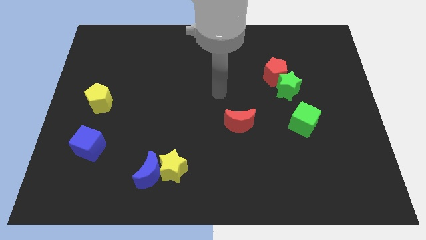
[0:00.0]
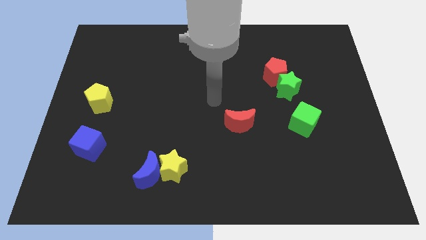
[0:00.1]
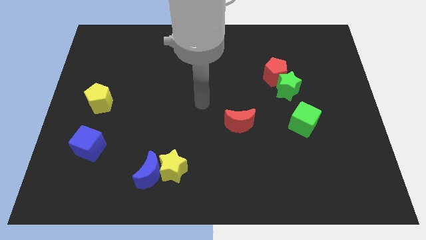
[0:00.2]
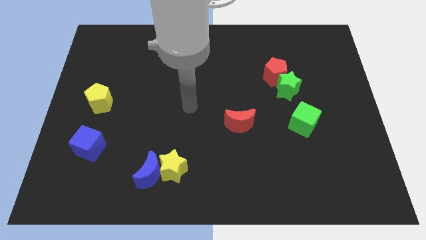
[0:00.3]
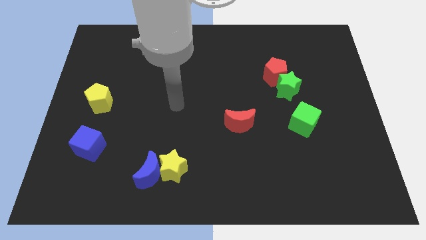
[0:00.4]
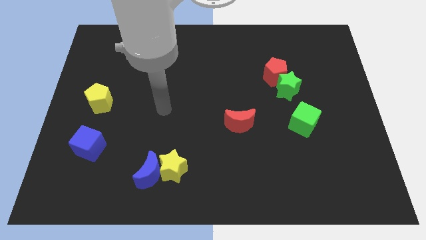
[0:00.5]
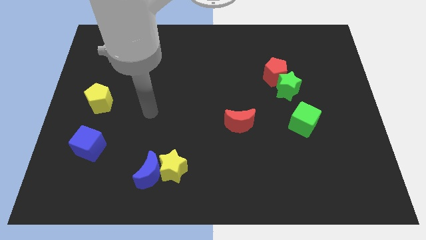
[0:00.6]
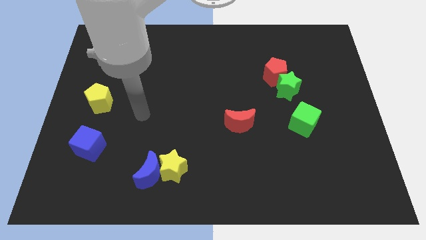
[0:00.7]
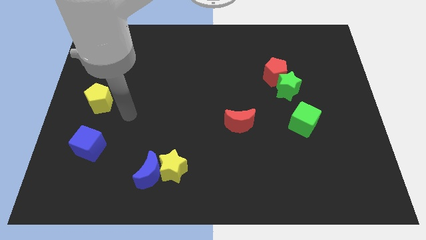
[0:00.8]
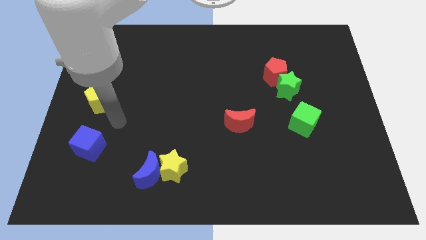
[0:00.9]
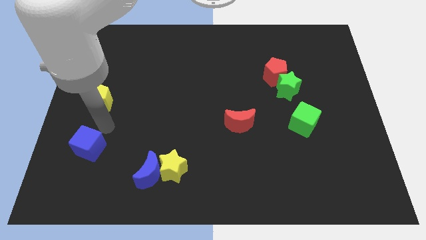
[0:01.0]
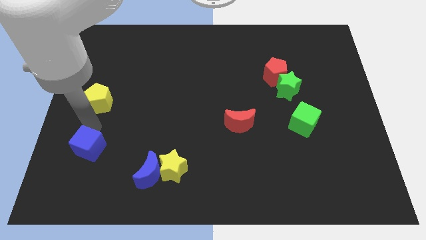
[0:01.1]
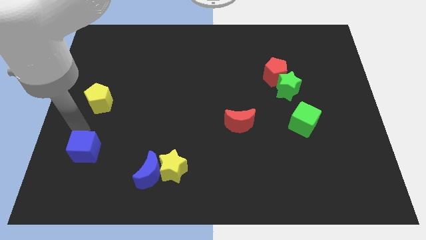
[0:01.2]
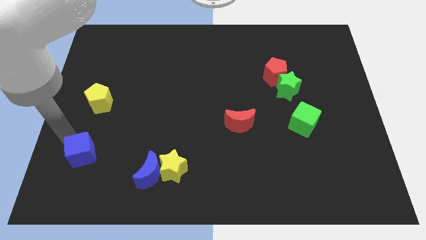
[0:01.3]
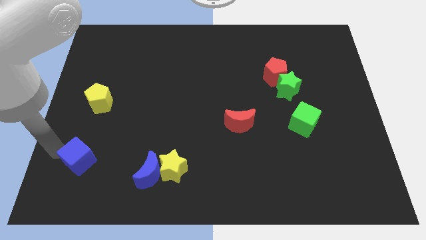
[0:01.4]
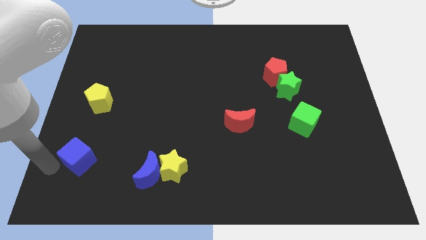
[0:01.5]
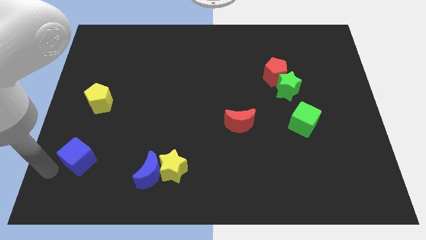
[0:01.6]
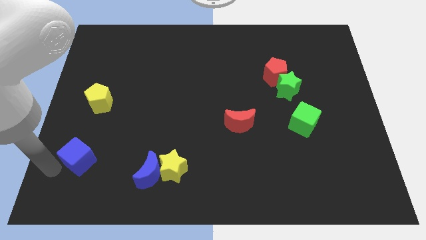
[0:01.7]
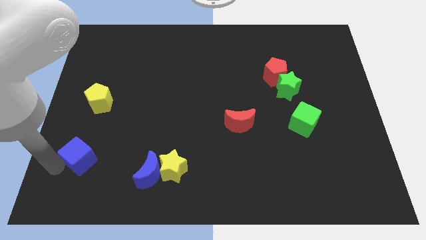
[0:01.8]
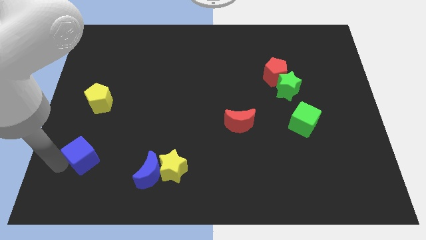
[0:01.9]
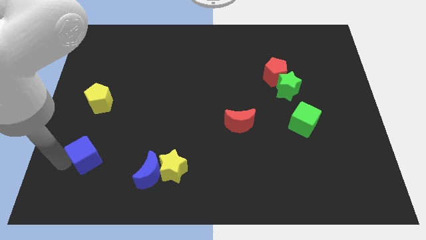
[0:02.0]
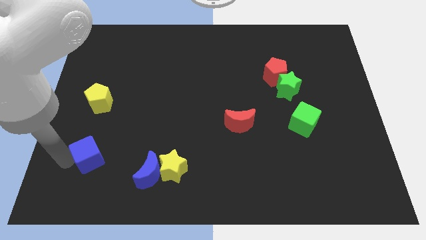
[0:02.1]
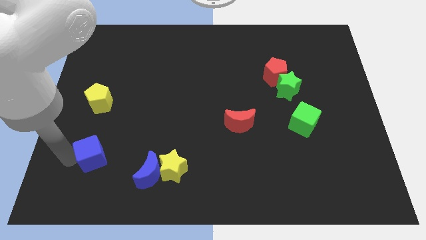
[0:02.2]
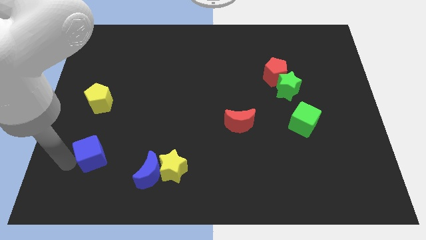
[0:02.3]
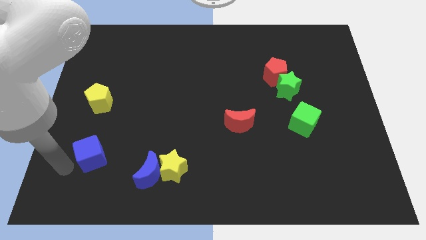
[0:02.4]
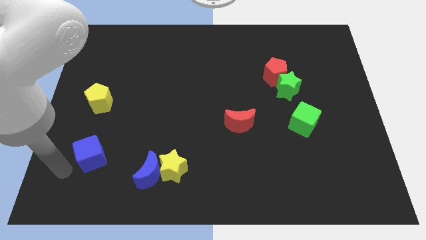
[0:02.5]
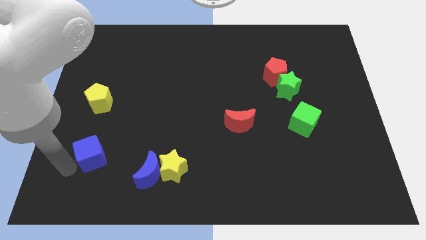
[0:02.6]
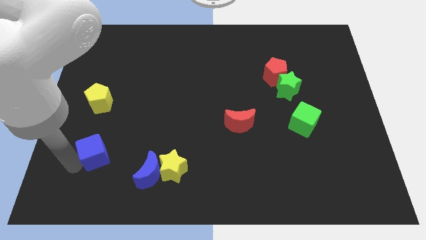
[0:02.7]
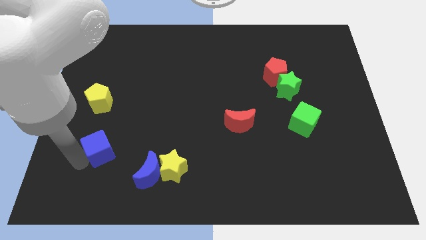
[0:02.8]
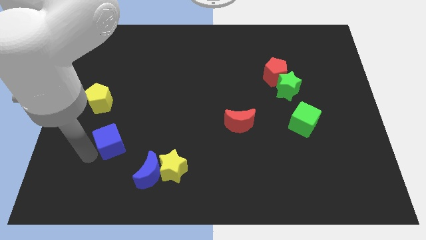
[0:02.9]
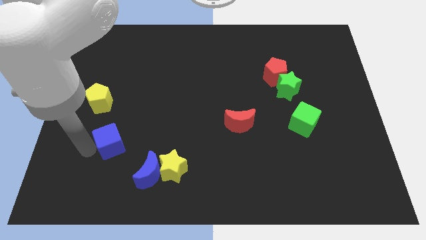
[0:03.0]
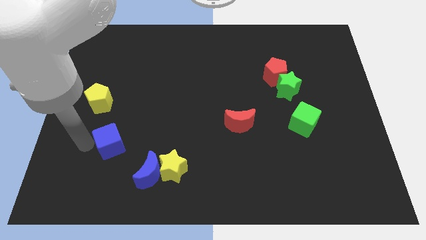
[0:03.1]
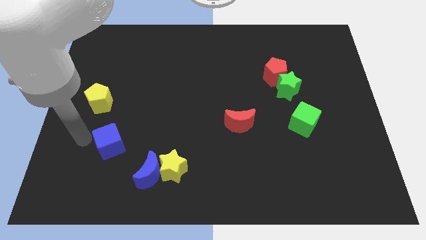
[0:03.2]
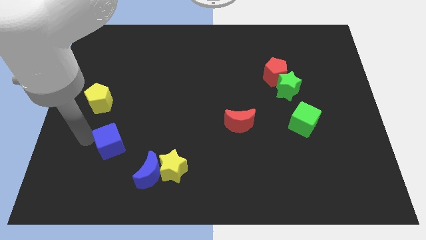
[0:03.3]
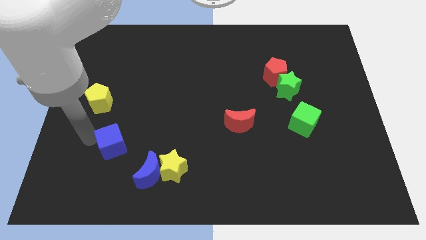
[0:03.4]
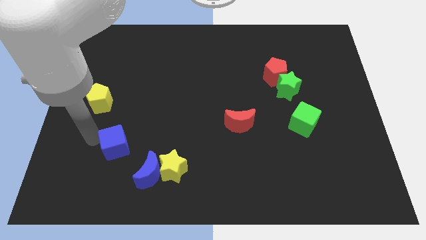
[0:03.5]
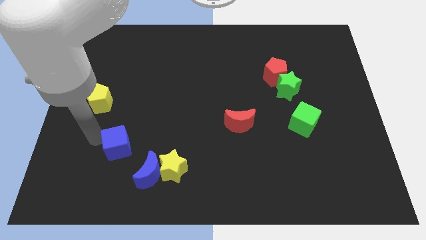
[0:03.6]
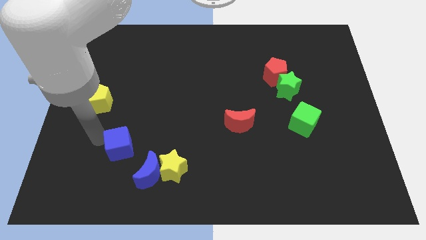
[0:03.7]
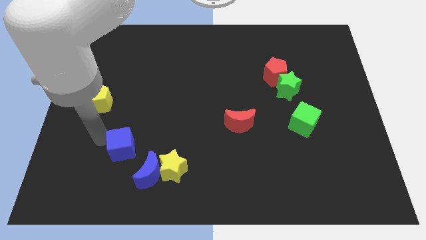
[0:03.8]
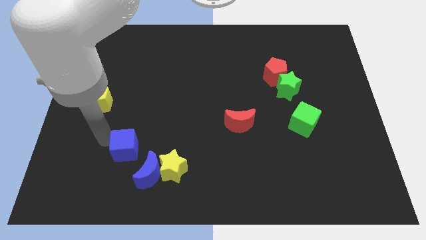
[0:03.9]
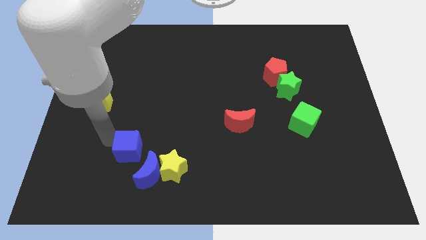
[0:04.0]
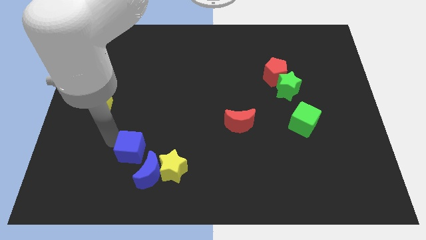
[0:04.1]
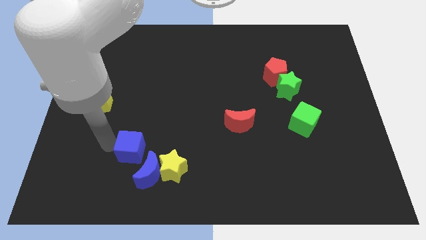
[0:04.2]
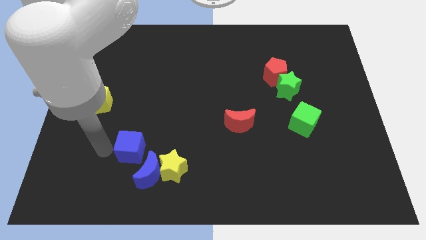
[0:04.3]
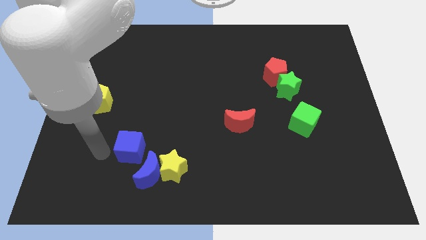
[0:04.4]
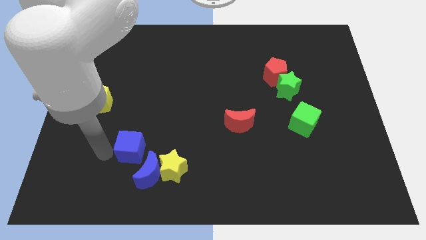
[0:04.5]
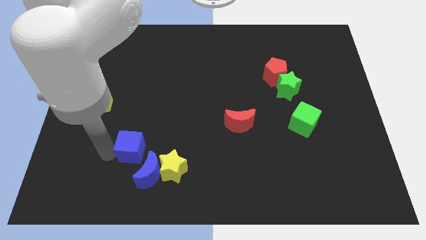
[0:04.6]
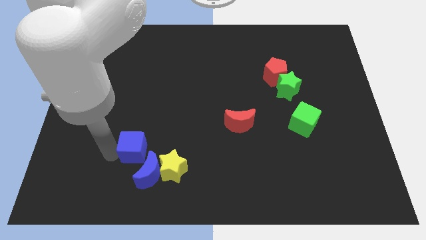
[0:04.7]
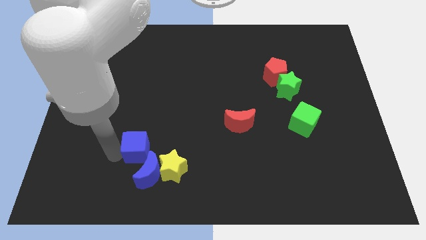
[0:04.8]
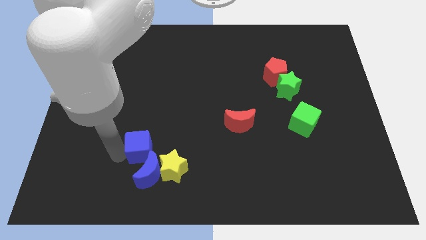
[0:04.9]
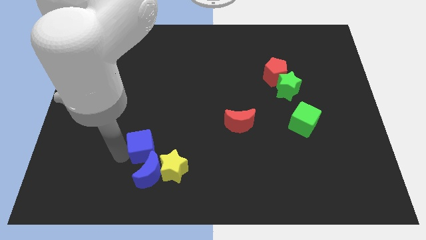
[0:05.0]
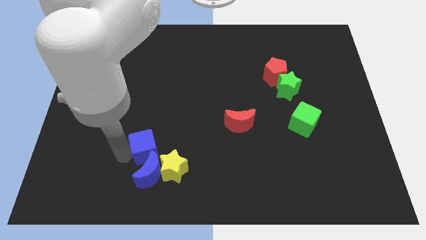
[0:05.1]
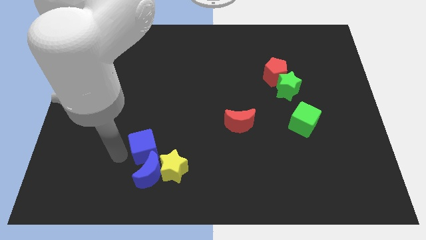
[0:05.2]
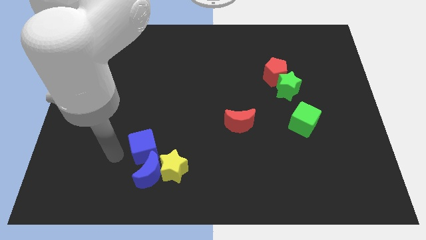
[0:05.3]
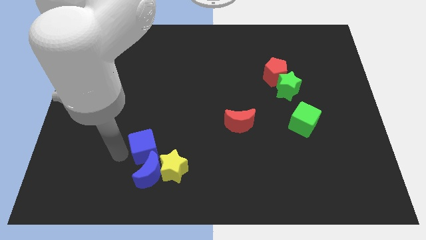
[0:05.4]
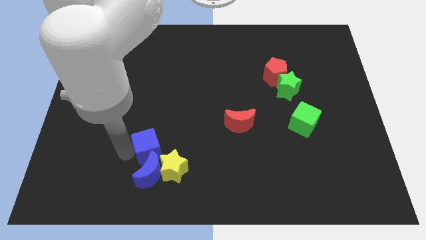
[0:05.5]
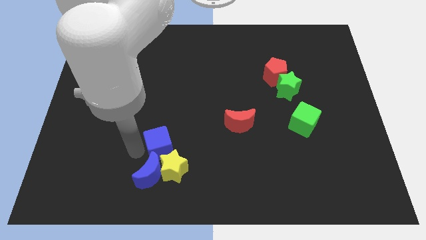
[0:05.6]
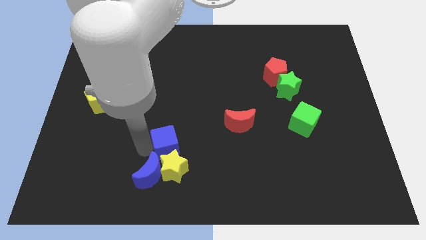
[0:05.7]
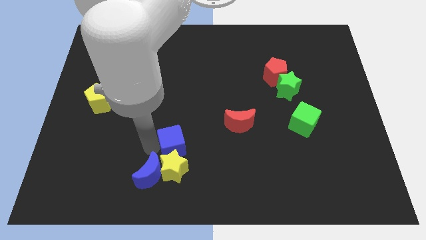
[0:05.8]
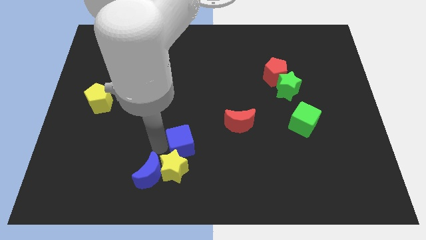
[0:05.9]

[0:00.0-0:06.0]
slide the blue cube right

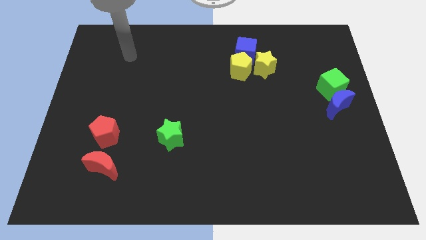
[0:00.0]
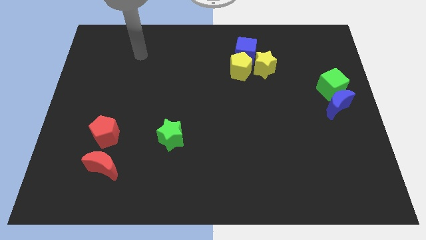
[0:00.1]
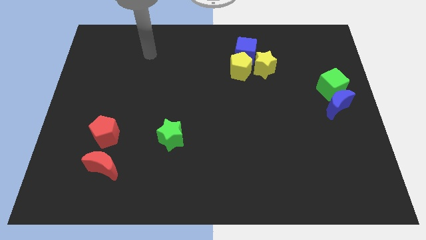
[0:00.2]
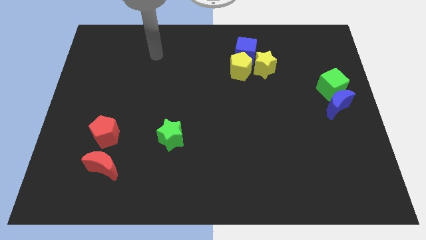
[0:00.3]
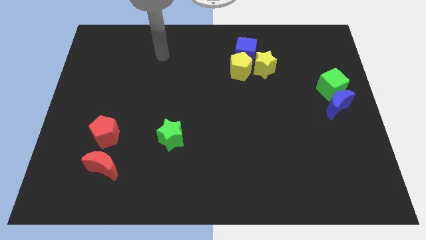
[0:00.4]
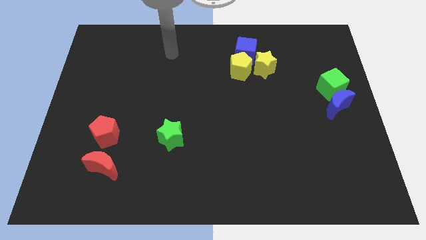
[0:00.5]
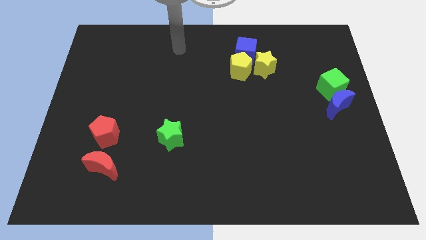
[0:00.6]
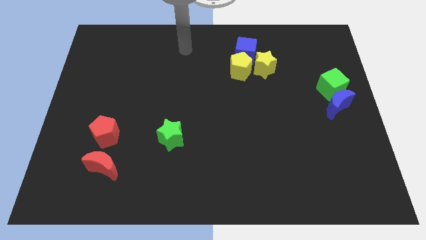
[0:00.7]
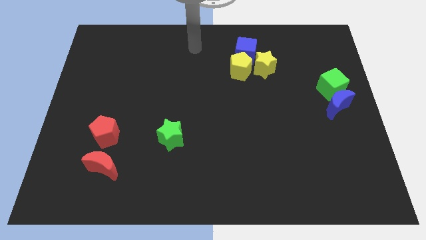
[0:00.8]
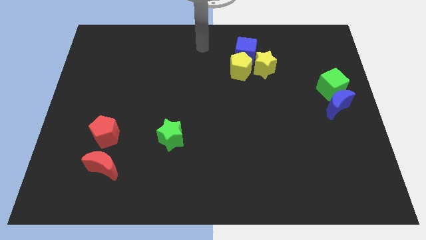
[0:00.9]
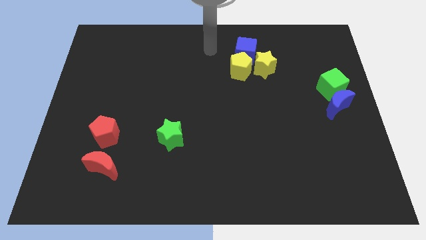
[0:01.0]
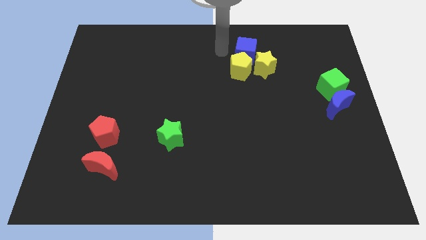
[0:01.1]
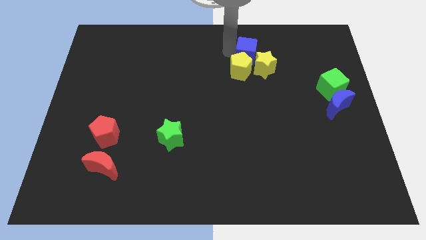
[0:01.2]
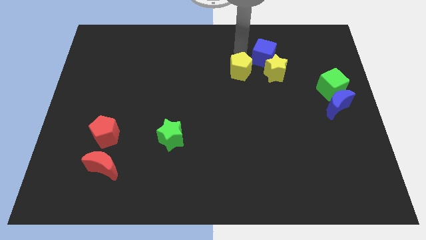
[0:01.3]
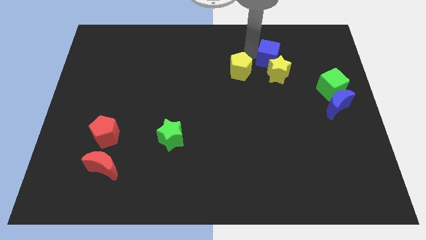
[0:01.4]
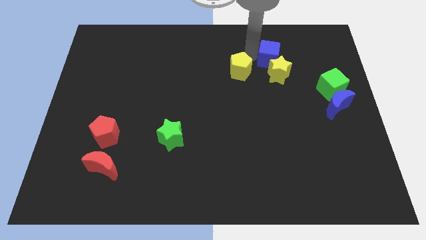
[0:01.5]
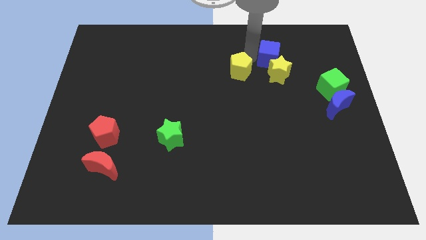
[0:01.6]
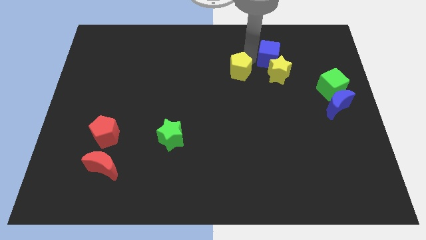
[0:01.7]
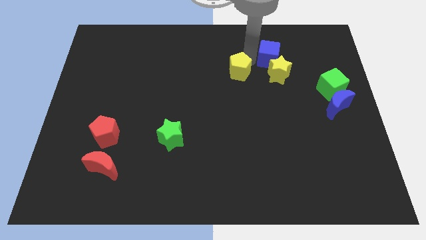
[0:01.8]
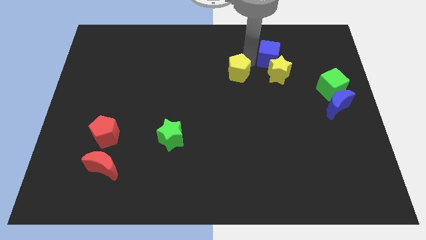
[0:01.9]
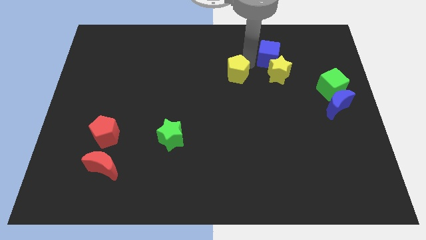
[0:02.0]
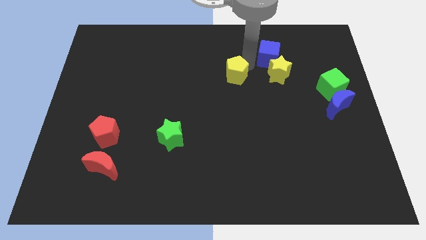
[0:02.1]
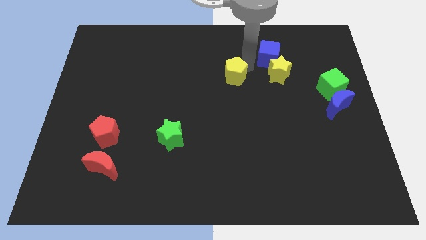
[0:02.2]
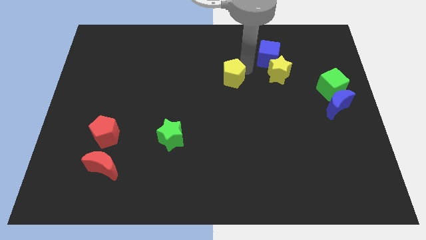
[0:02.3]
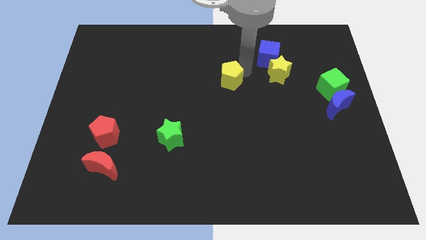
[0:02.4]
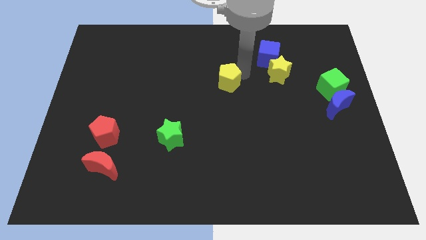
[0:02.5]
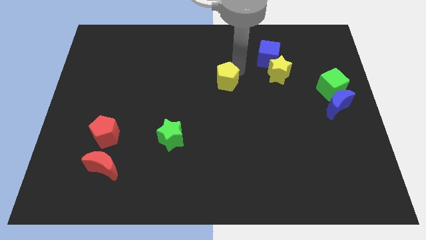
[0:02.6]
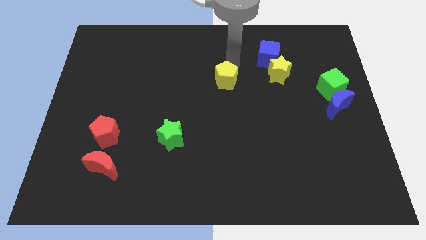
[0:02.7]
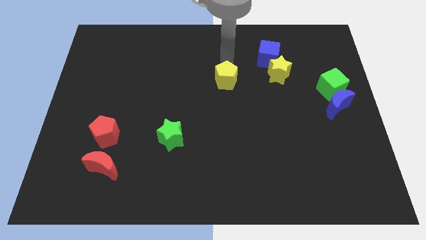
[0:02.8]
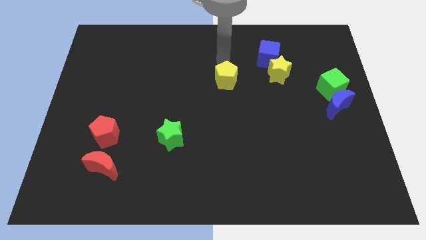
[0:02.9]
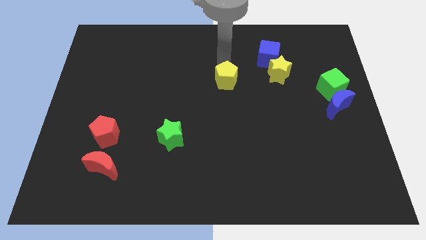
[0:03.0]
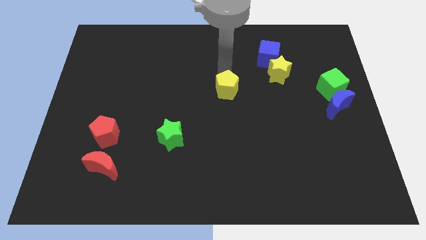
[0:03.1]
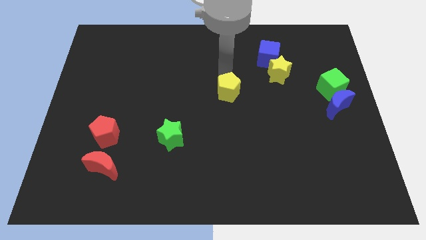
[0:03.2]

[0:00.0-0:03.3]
slightly slide the yellow pentagon downwards
